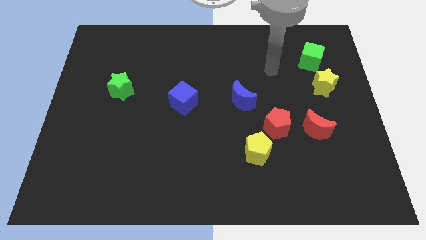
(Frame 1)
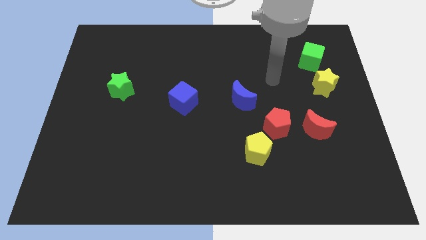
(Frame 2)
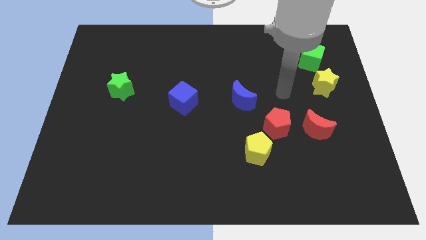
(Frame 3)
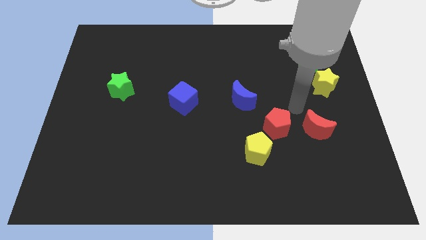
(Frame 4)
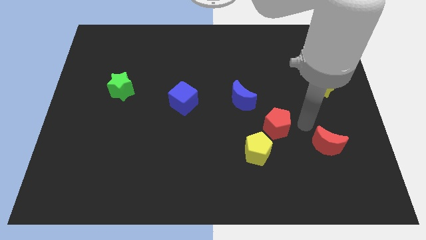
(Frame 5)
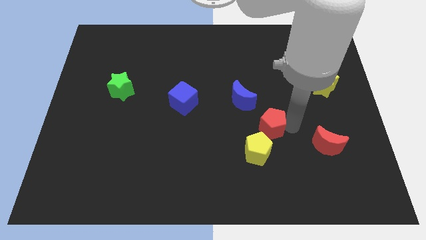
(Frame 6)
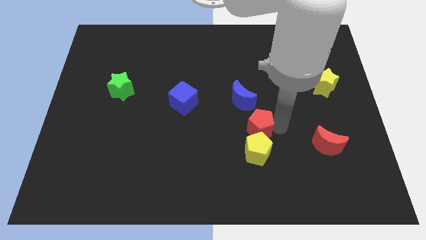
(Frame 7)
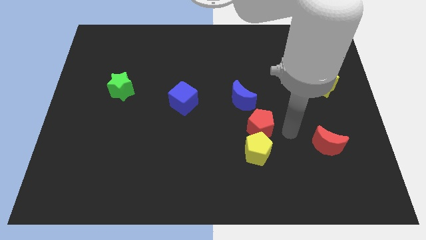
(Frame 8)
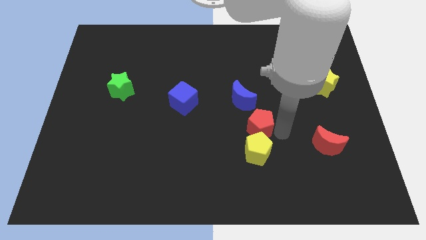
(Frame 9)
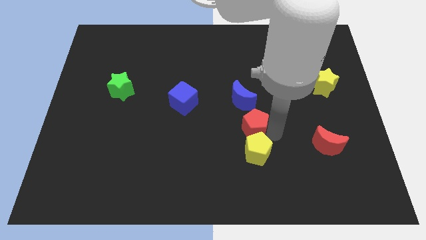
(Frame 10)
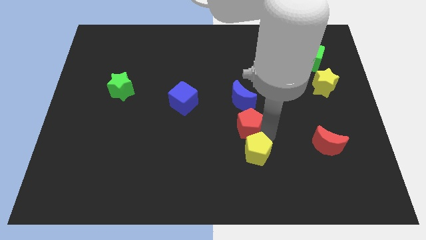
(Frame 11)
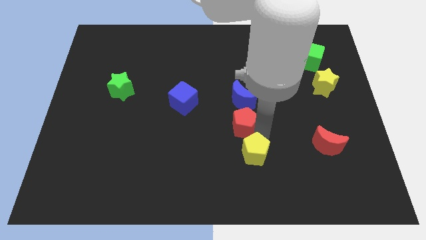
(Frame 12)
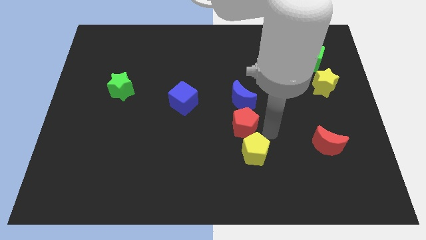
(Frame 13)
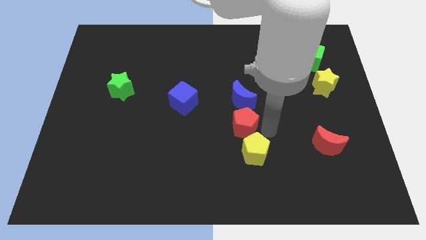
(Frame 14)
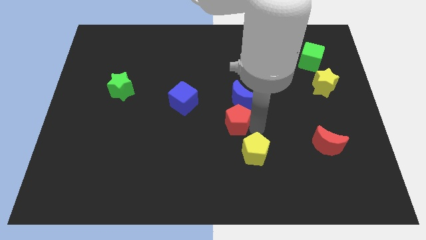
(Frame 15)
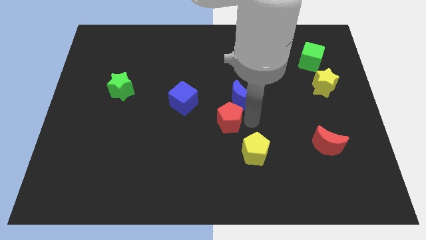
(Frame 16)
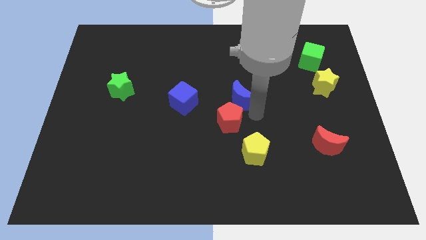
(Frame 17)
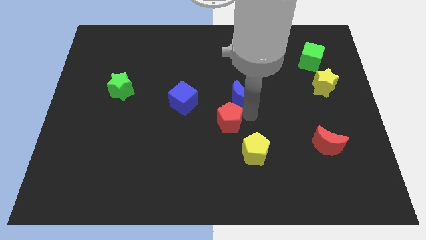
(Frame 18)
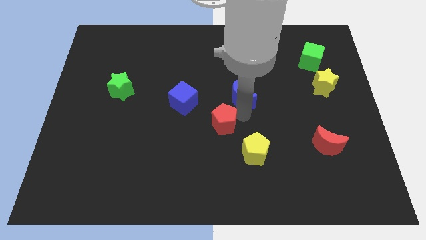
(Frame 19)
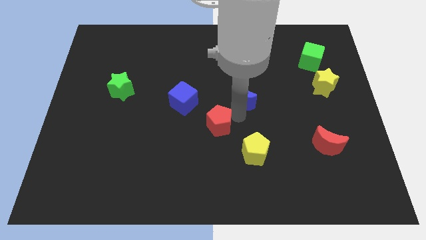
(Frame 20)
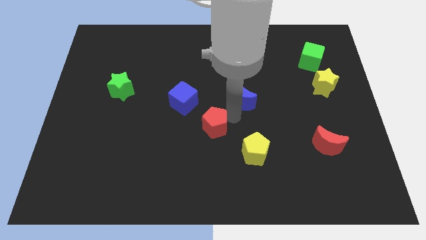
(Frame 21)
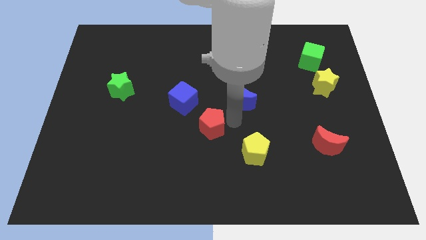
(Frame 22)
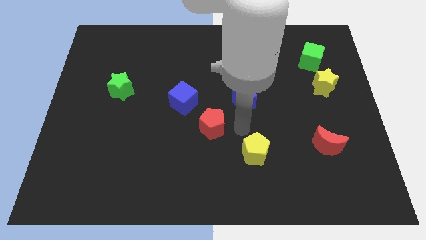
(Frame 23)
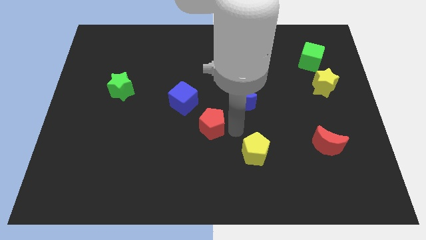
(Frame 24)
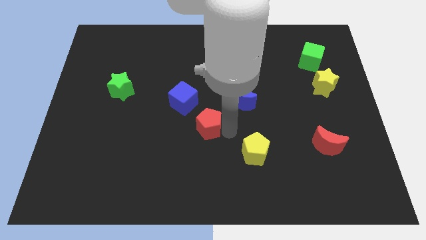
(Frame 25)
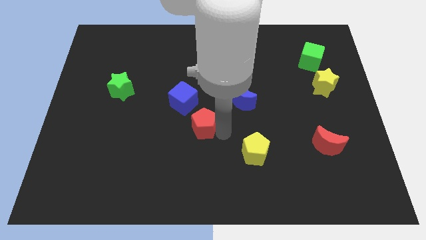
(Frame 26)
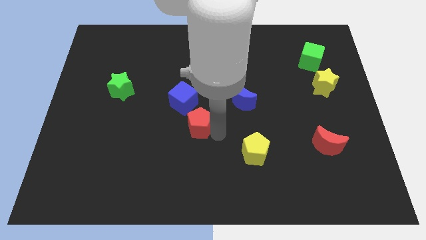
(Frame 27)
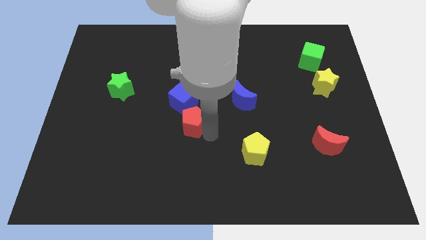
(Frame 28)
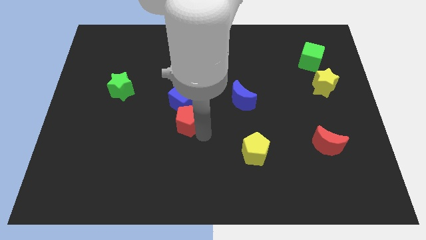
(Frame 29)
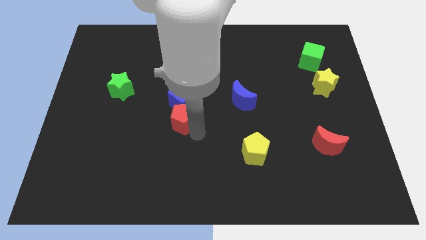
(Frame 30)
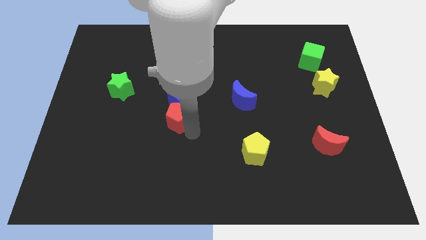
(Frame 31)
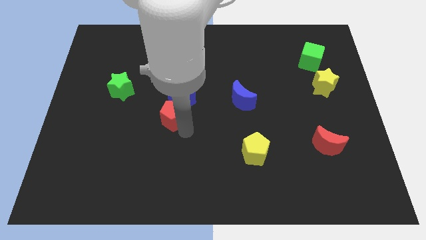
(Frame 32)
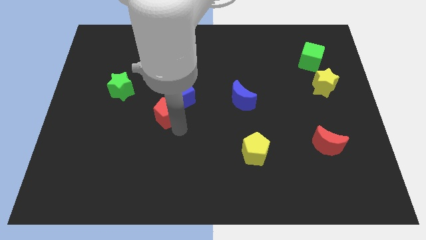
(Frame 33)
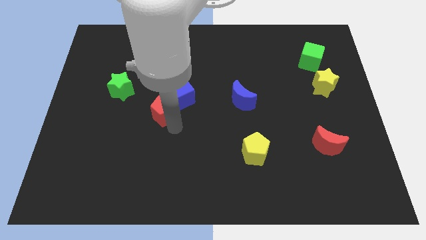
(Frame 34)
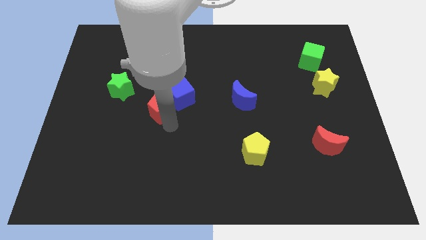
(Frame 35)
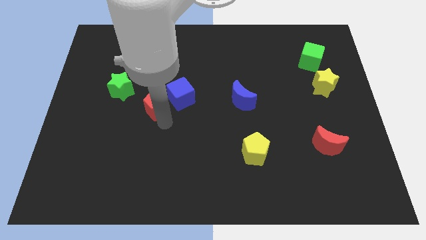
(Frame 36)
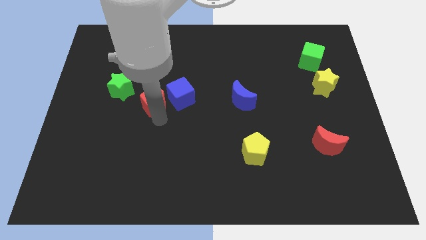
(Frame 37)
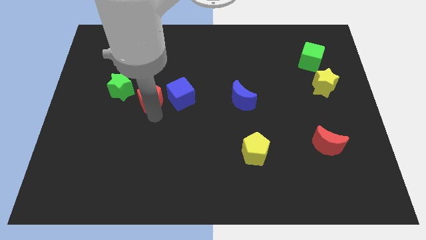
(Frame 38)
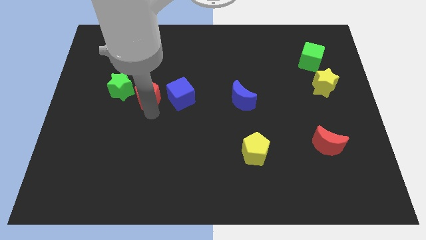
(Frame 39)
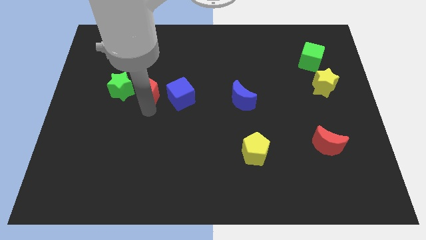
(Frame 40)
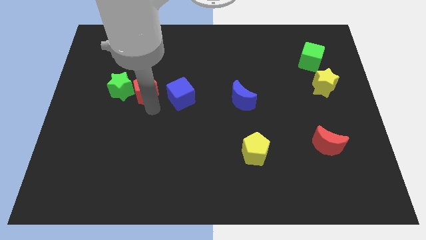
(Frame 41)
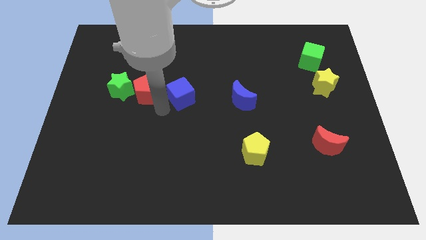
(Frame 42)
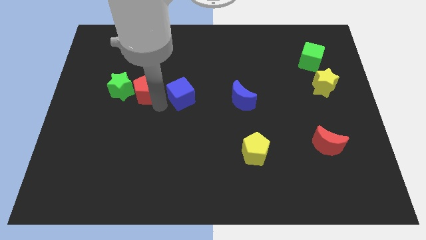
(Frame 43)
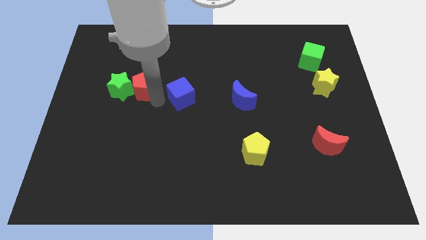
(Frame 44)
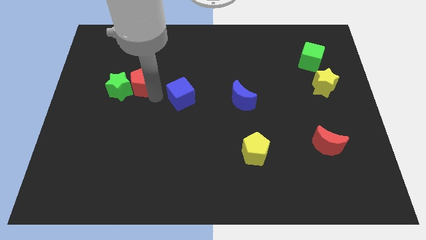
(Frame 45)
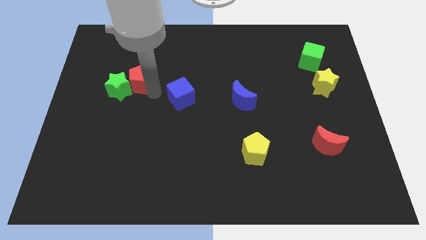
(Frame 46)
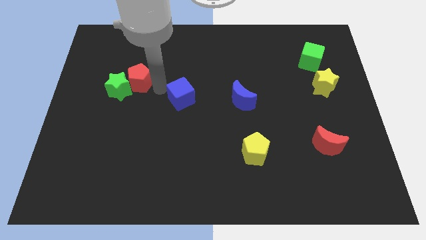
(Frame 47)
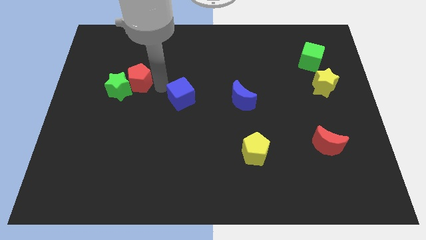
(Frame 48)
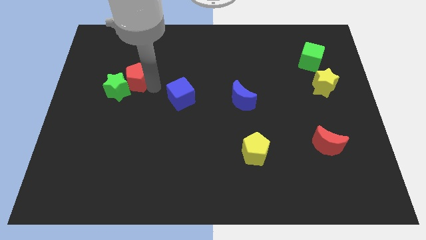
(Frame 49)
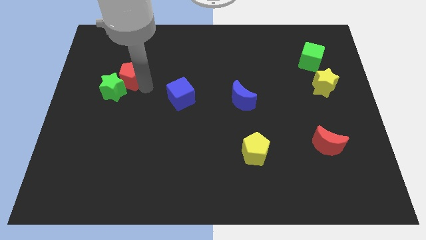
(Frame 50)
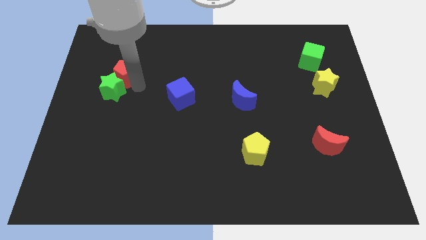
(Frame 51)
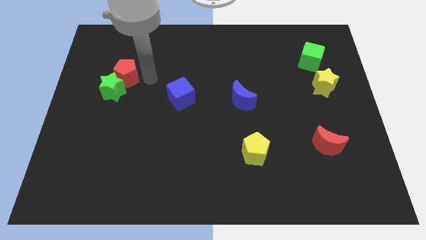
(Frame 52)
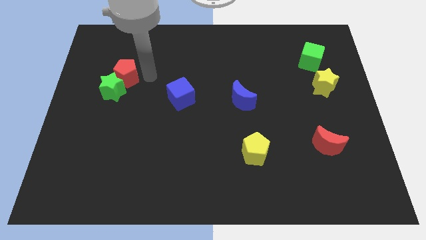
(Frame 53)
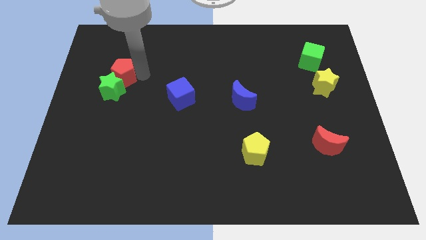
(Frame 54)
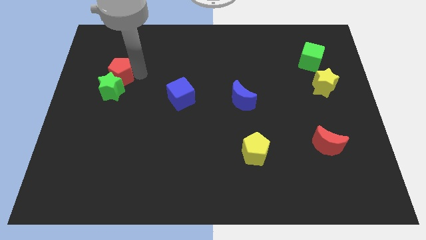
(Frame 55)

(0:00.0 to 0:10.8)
slide the red pentagon to the top left of the green star

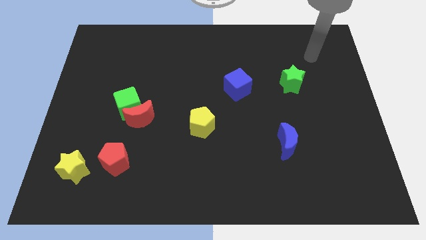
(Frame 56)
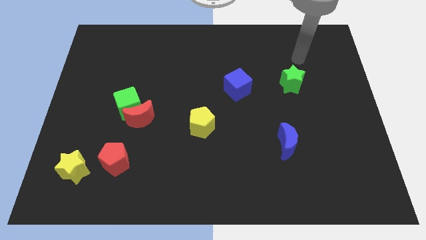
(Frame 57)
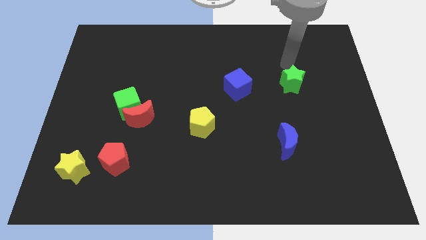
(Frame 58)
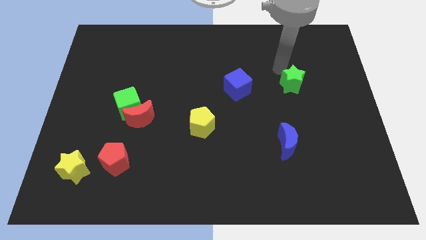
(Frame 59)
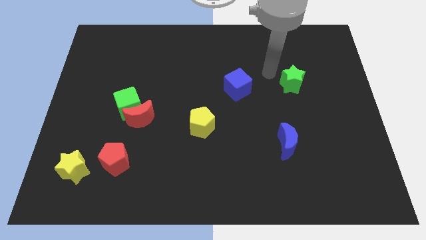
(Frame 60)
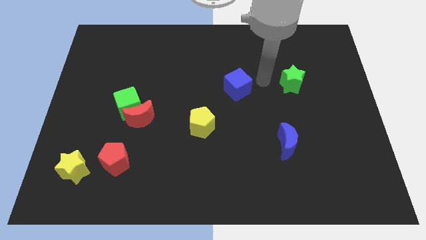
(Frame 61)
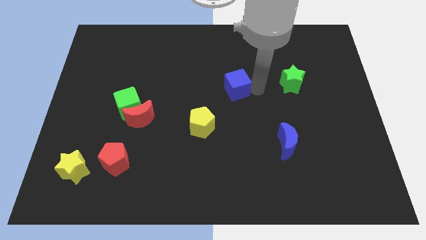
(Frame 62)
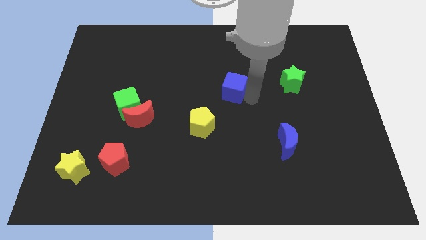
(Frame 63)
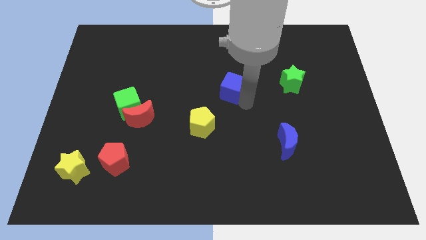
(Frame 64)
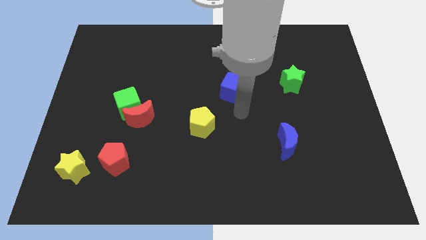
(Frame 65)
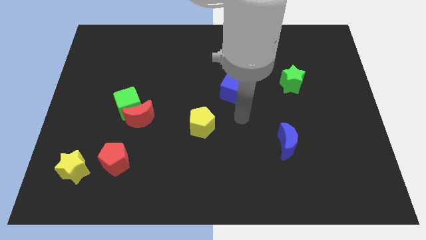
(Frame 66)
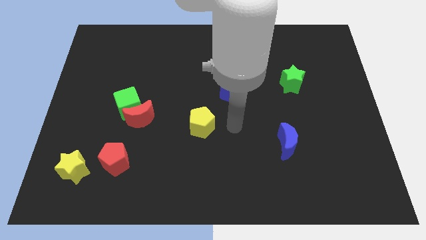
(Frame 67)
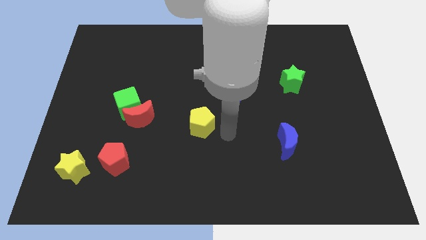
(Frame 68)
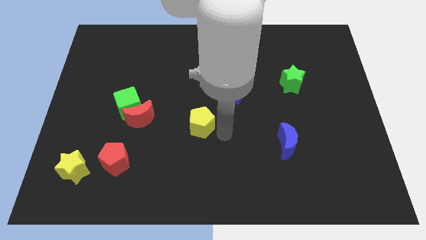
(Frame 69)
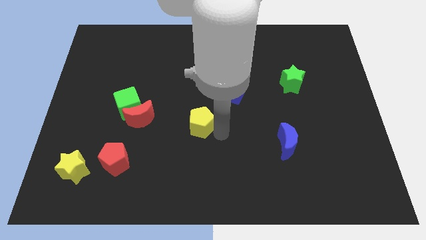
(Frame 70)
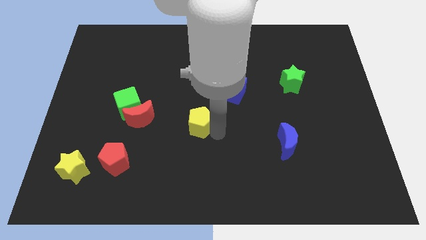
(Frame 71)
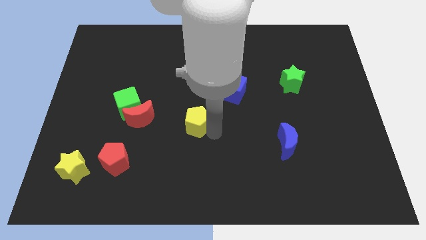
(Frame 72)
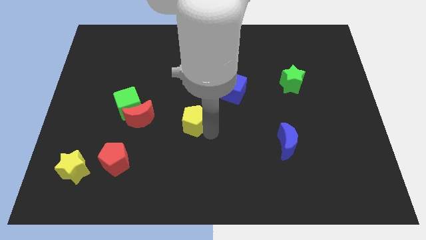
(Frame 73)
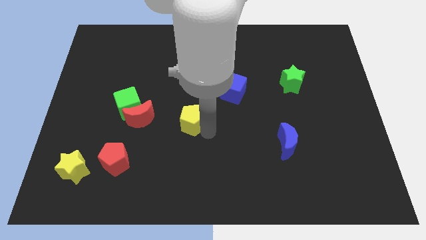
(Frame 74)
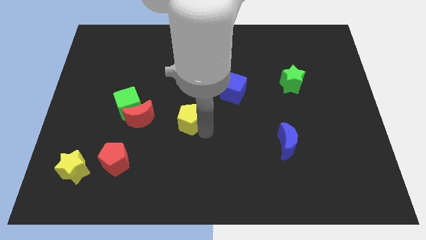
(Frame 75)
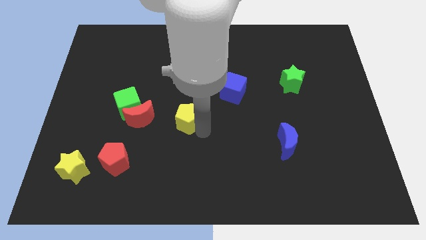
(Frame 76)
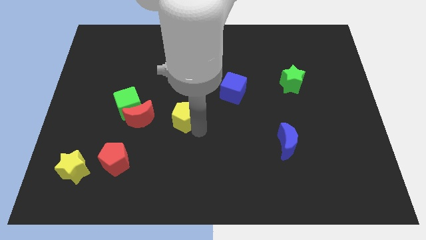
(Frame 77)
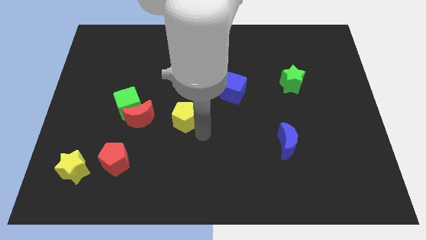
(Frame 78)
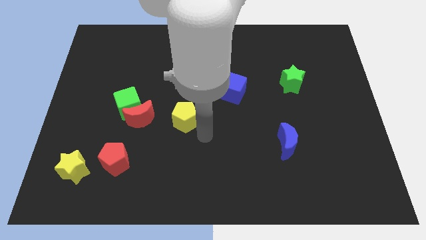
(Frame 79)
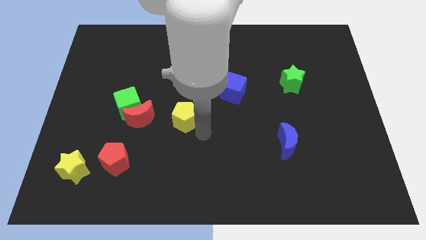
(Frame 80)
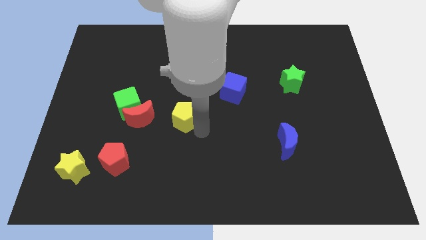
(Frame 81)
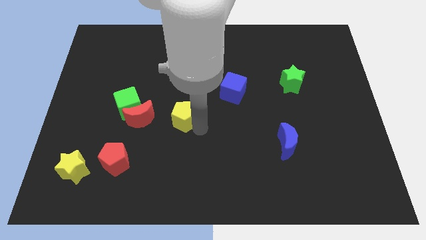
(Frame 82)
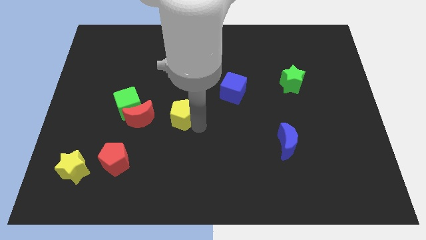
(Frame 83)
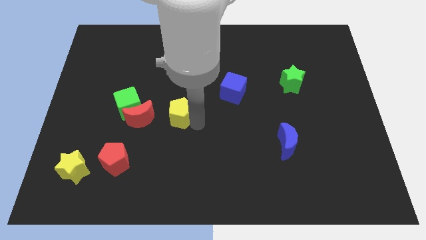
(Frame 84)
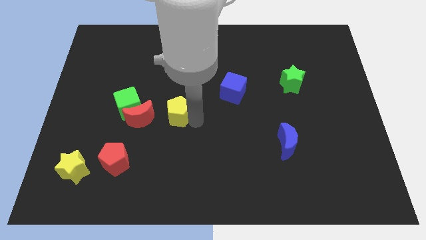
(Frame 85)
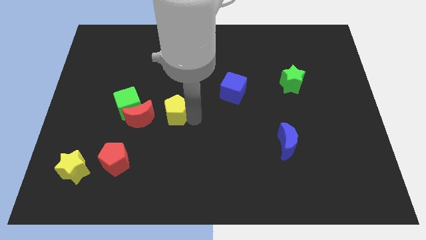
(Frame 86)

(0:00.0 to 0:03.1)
push the yellow pentagon to the top right of the red moon
